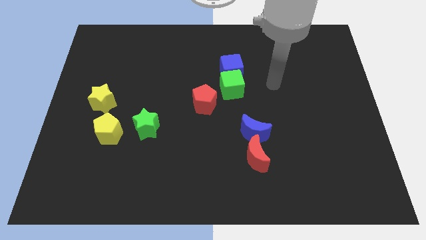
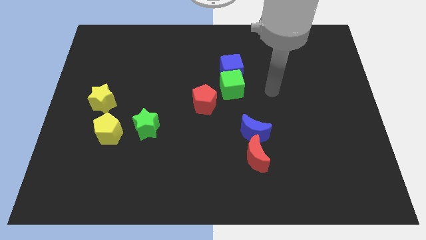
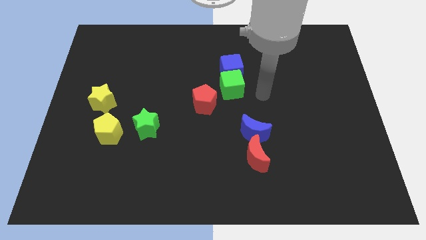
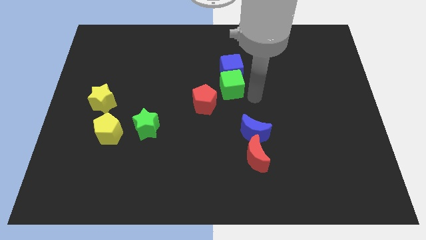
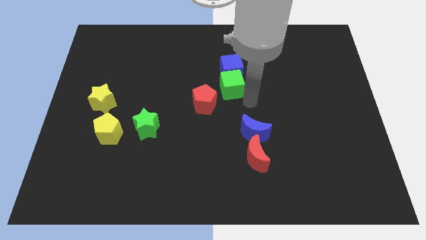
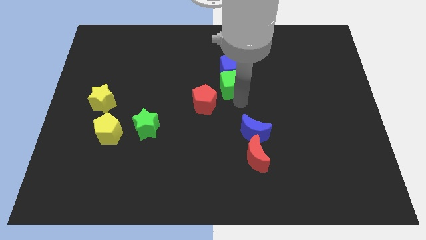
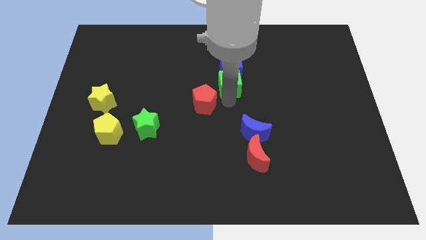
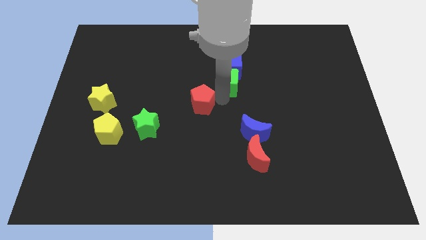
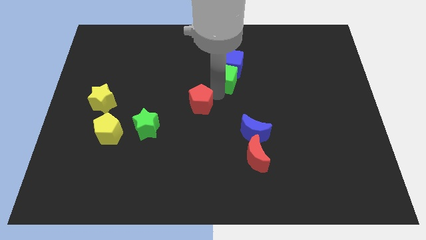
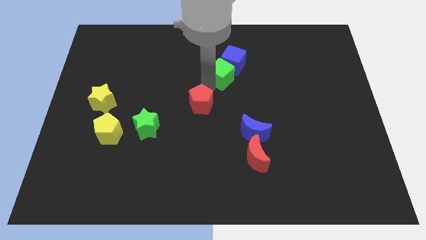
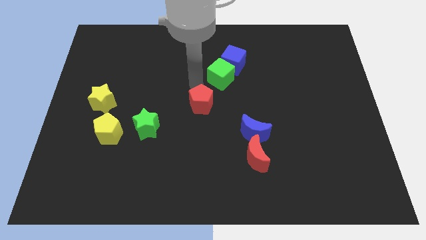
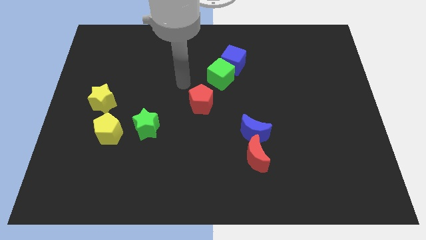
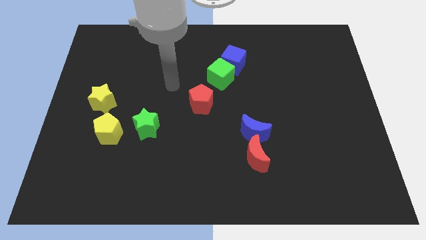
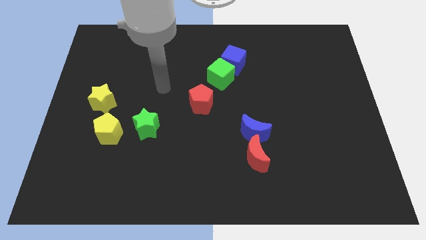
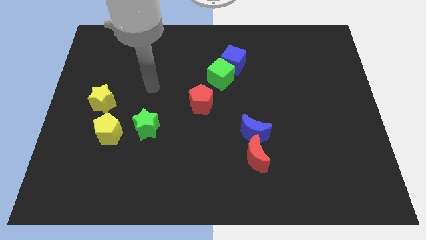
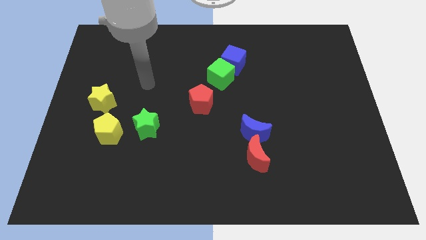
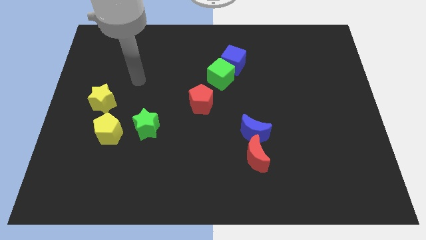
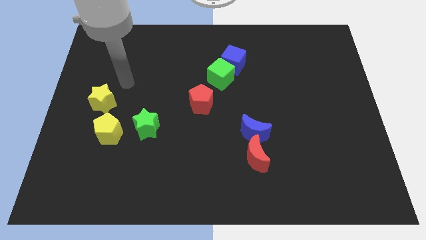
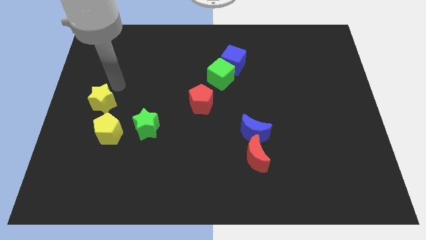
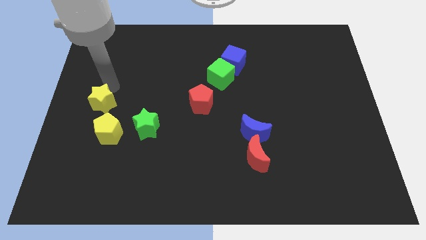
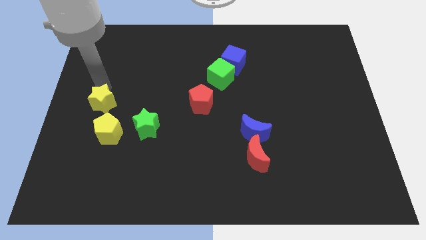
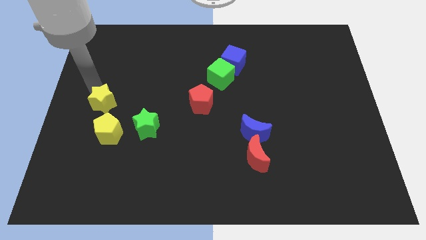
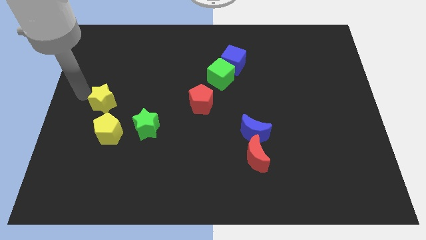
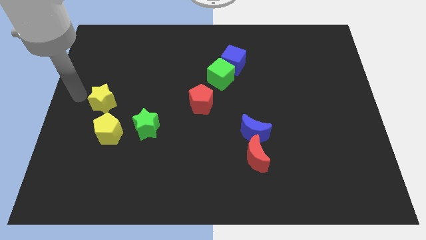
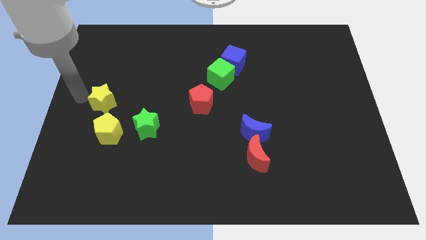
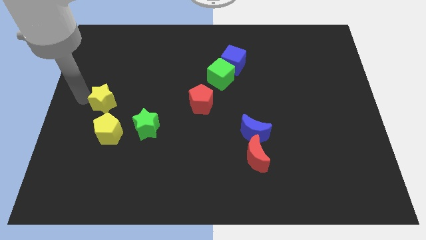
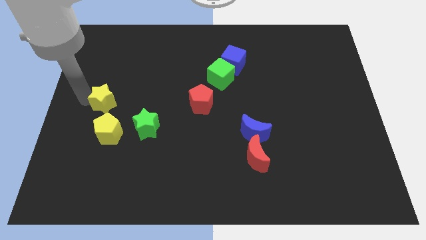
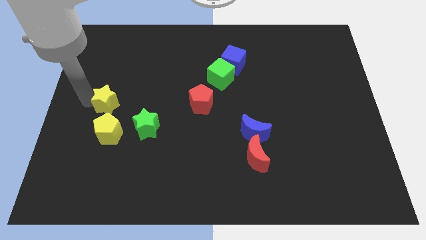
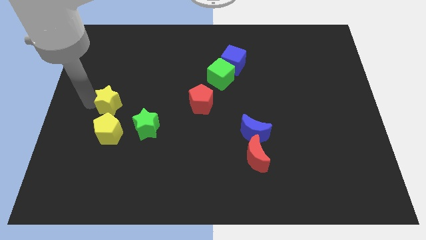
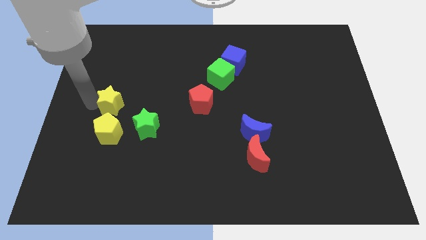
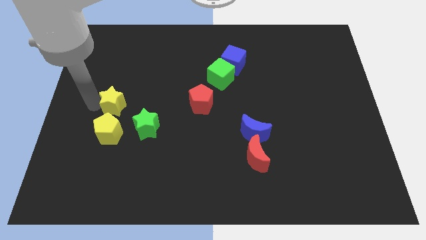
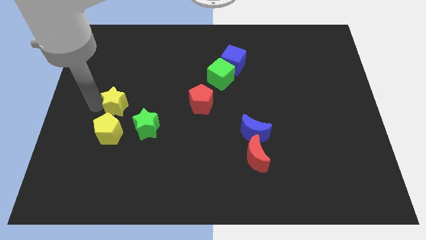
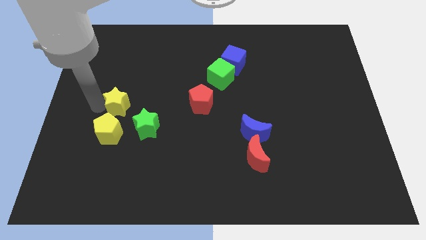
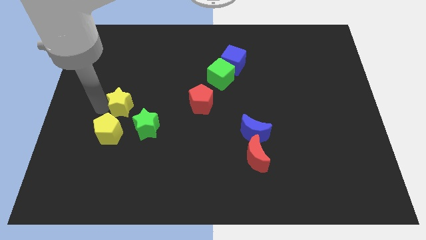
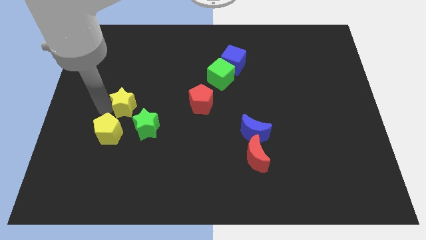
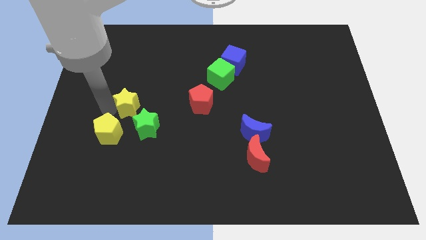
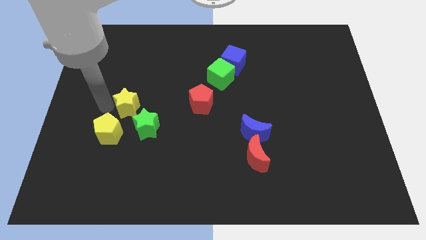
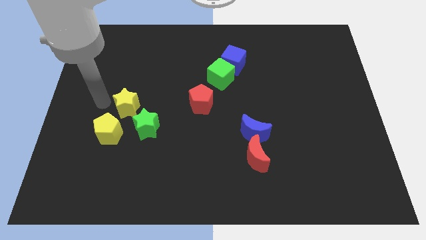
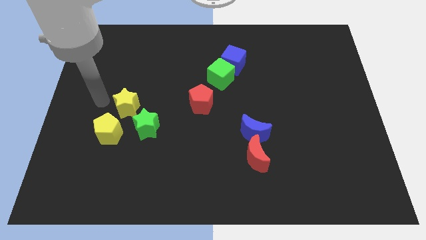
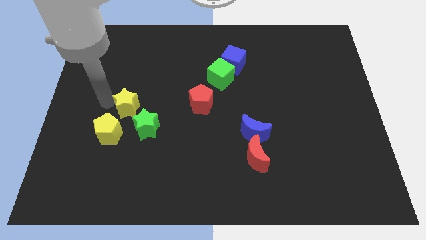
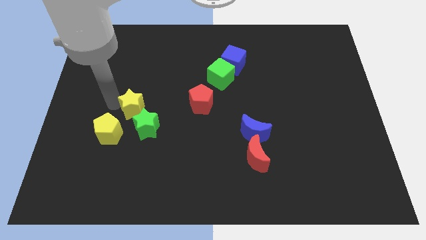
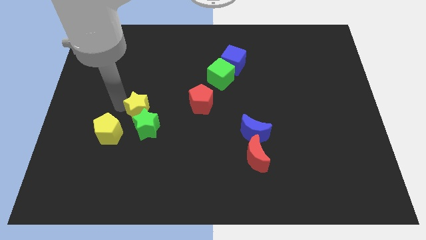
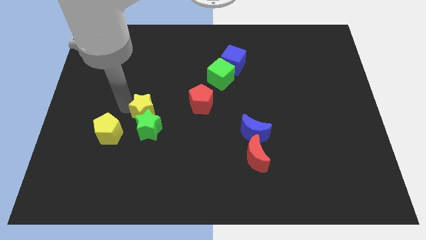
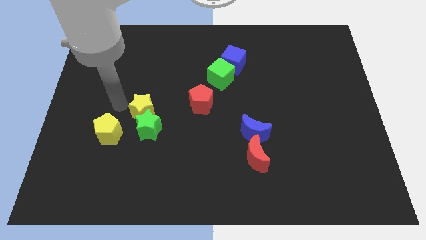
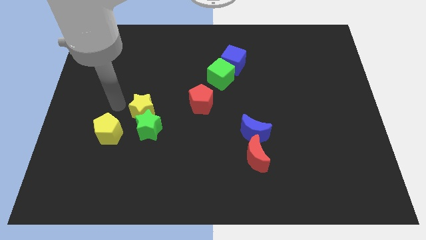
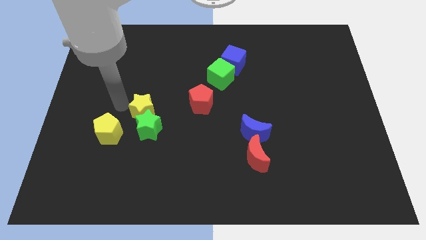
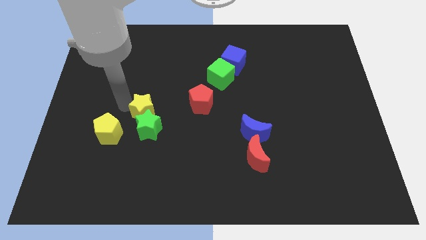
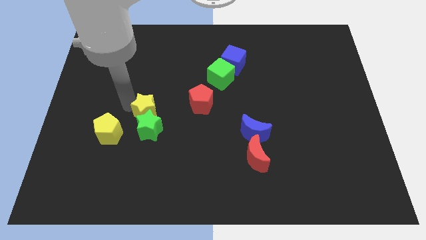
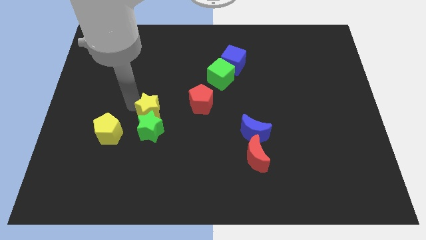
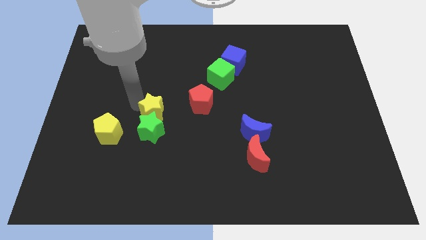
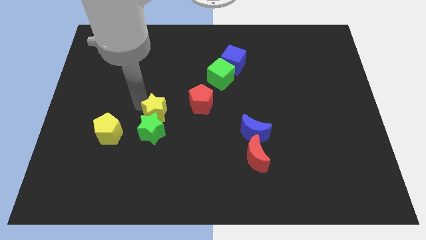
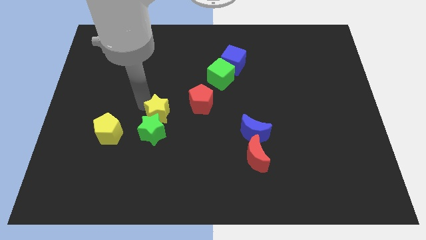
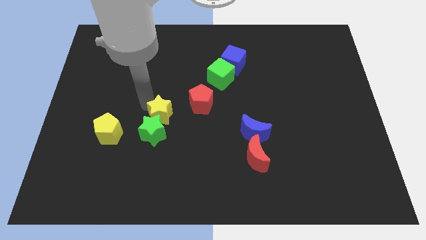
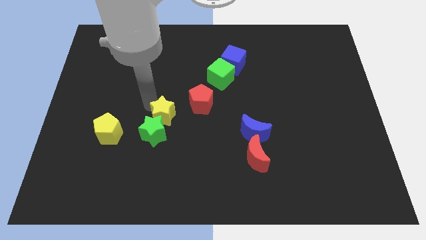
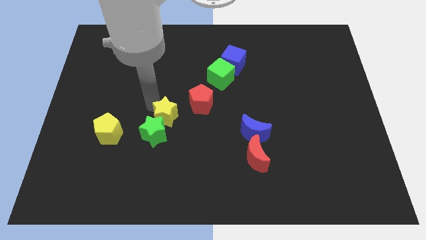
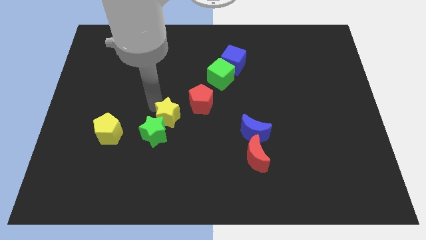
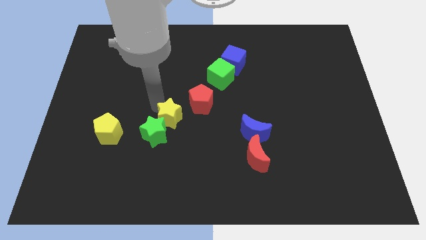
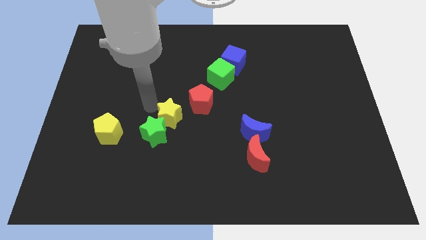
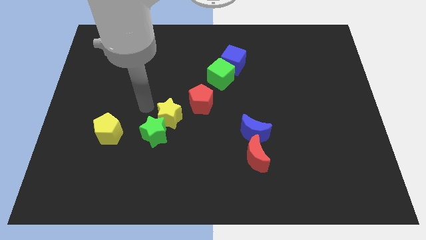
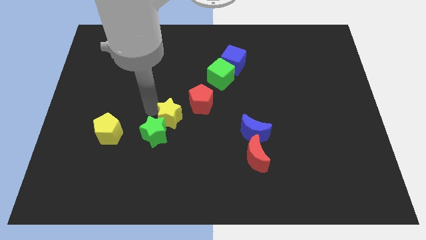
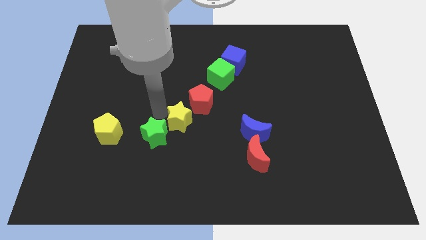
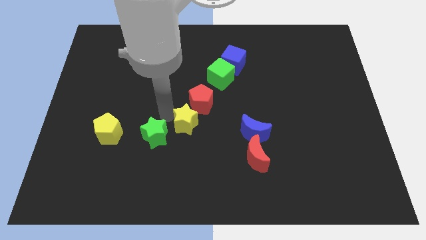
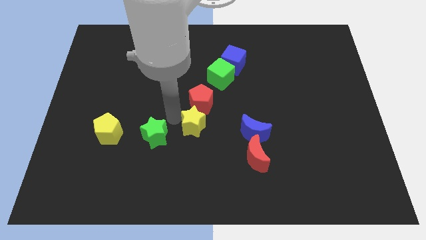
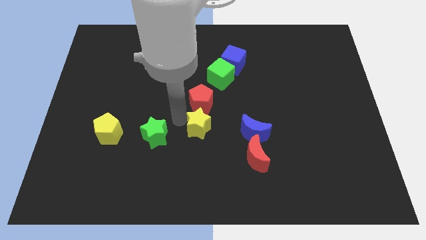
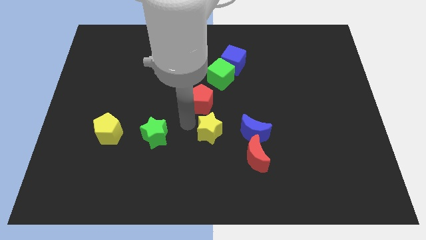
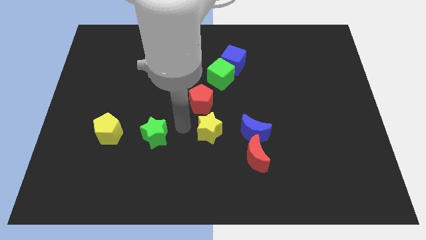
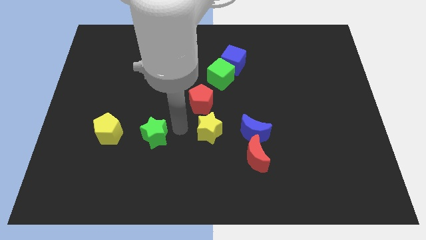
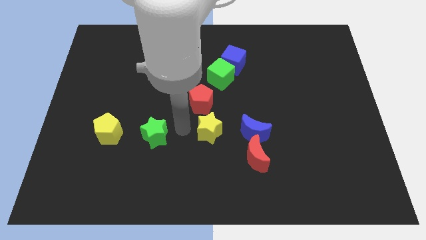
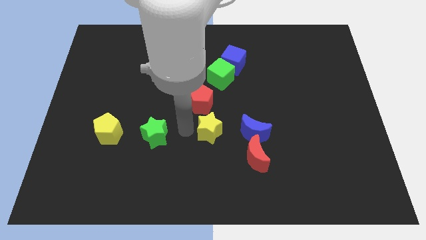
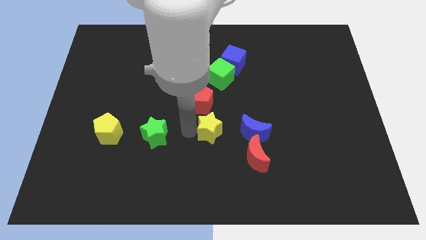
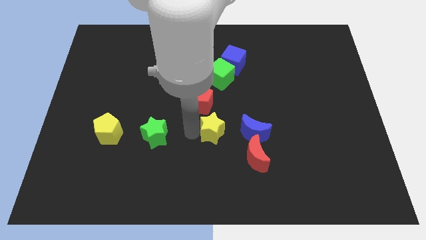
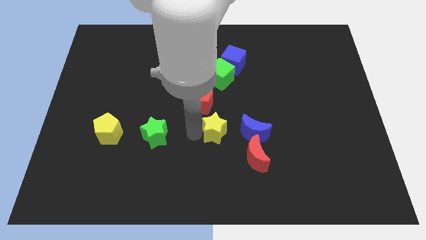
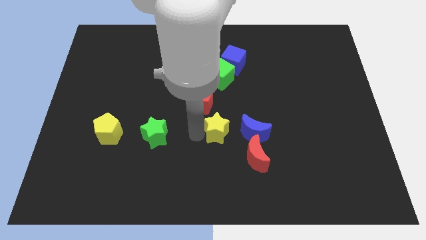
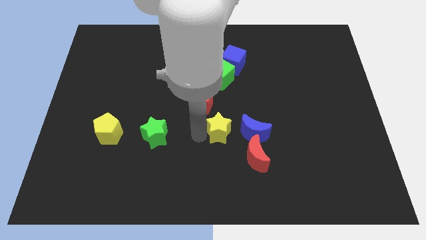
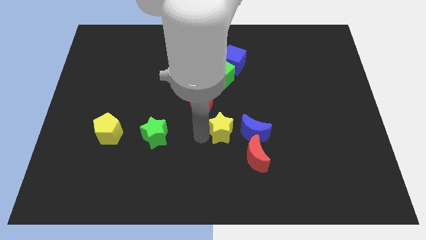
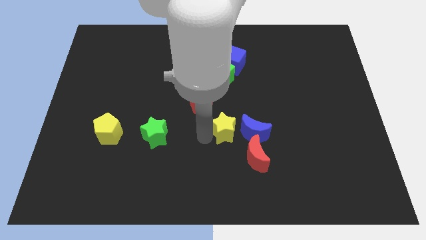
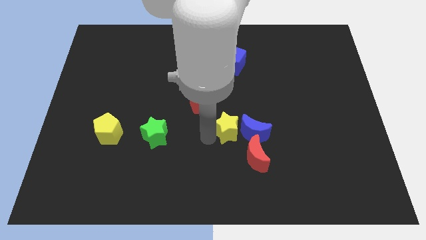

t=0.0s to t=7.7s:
move the yellow star close to the blue moon
